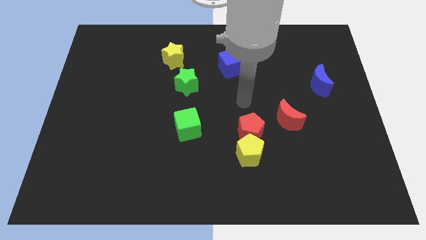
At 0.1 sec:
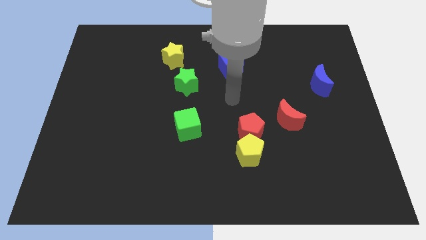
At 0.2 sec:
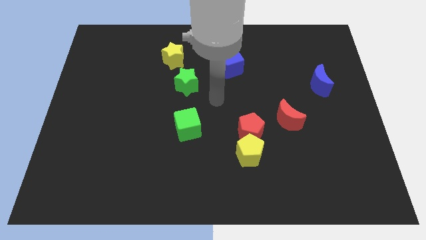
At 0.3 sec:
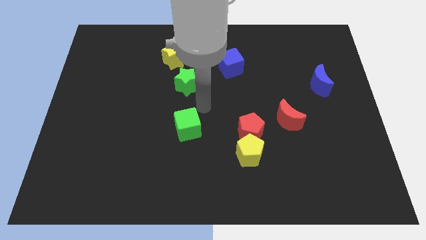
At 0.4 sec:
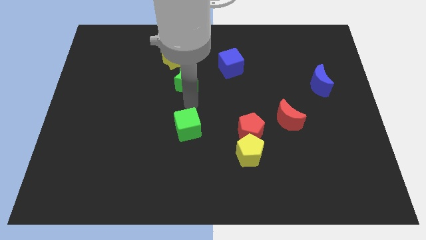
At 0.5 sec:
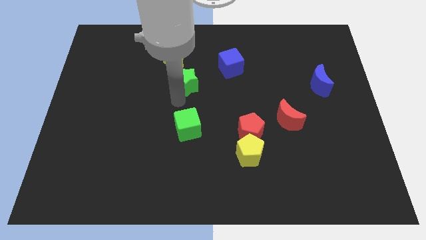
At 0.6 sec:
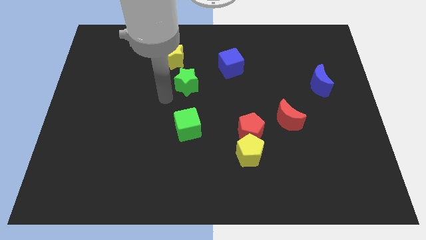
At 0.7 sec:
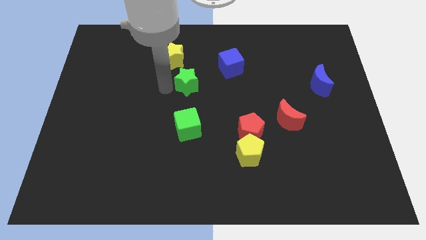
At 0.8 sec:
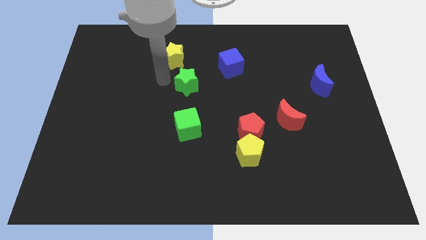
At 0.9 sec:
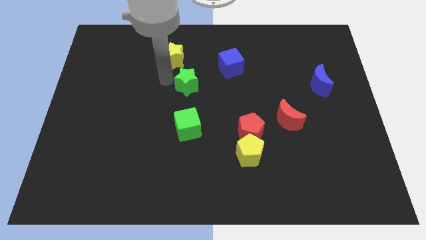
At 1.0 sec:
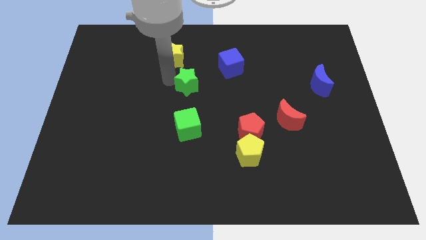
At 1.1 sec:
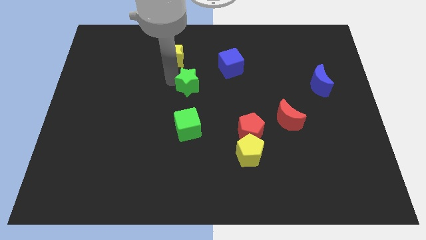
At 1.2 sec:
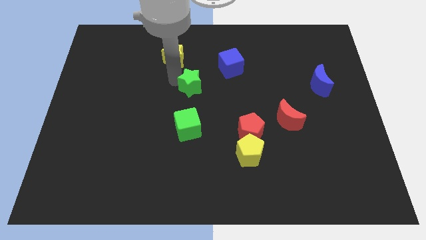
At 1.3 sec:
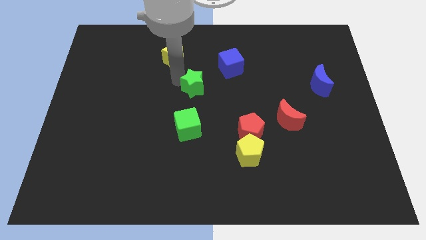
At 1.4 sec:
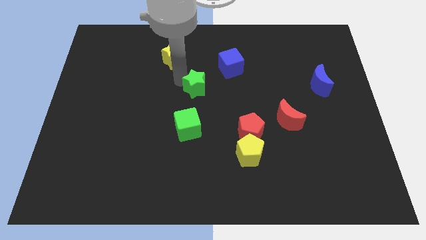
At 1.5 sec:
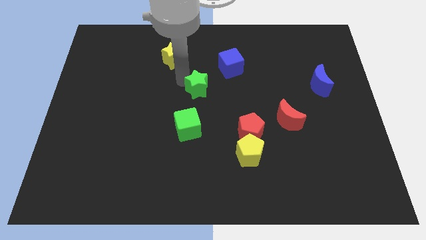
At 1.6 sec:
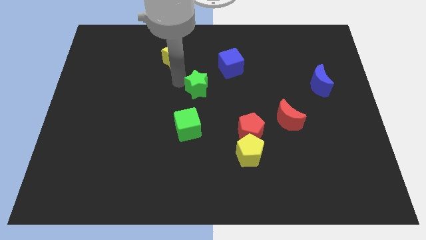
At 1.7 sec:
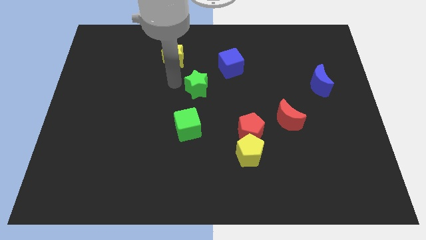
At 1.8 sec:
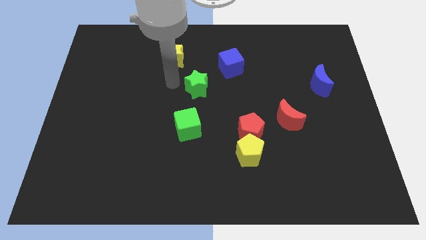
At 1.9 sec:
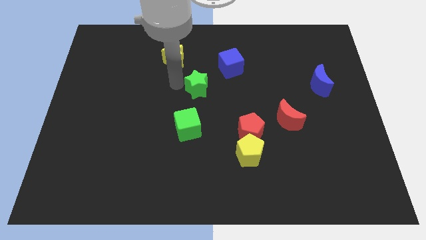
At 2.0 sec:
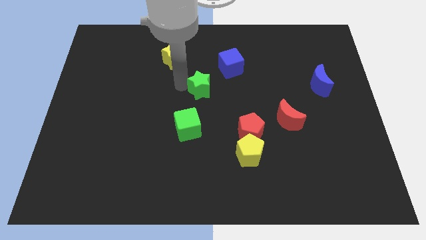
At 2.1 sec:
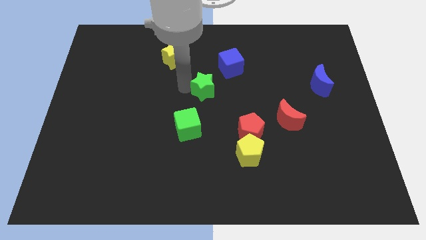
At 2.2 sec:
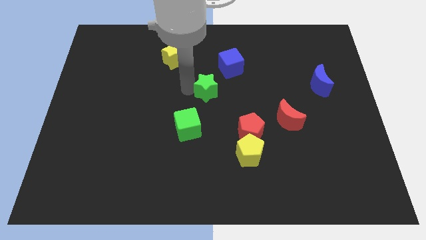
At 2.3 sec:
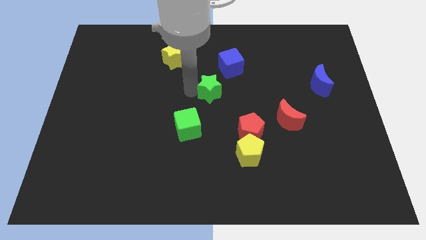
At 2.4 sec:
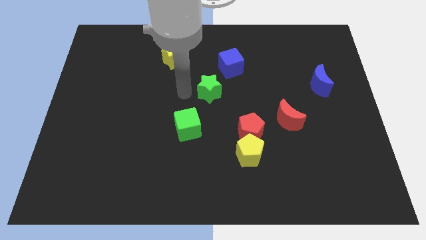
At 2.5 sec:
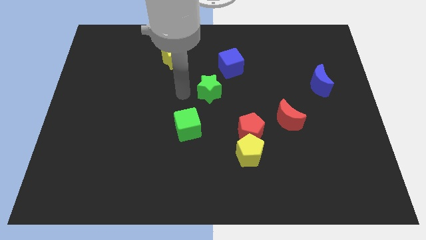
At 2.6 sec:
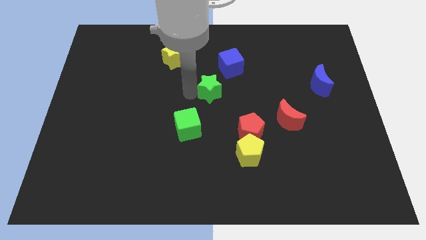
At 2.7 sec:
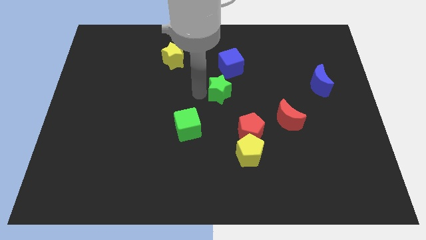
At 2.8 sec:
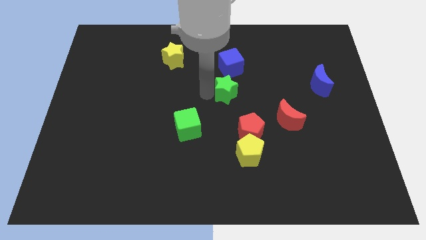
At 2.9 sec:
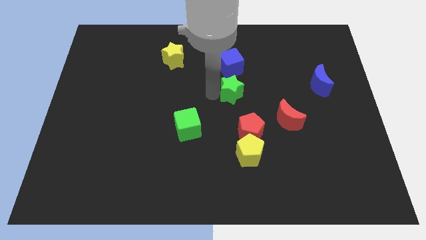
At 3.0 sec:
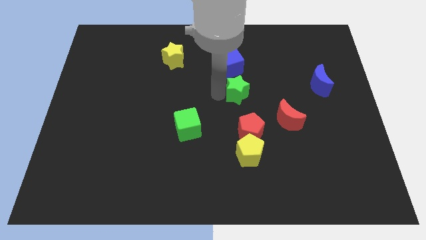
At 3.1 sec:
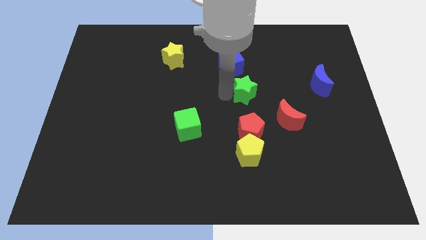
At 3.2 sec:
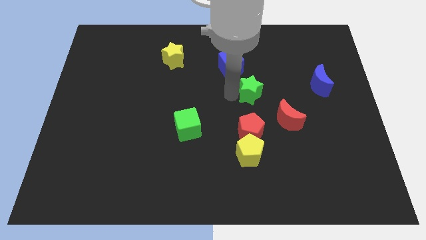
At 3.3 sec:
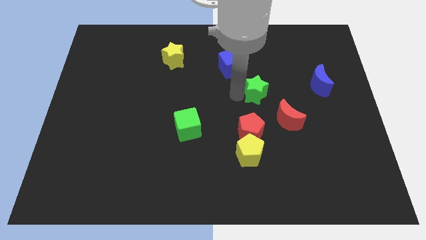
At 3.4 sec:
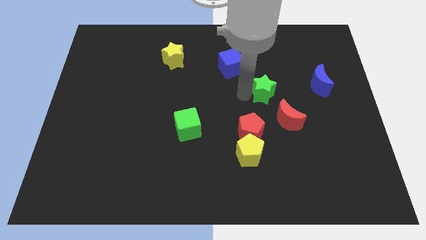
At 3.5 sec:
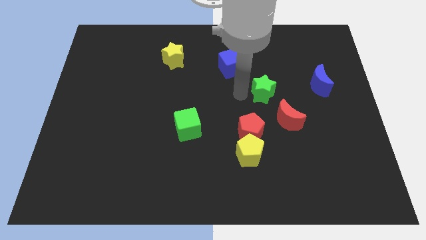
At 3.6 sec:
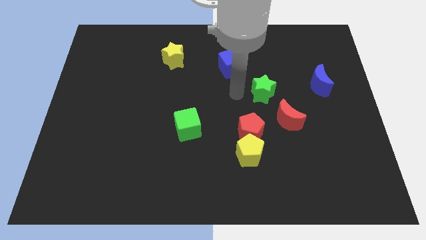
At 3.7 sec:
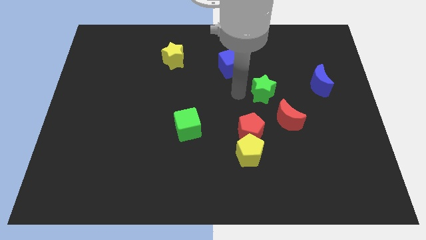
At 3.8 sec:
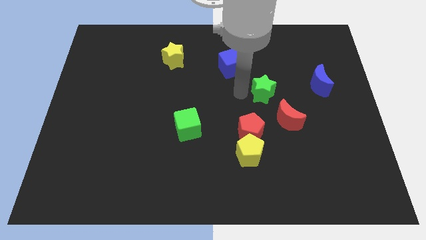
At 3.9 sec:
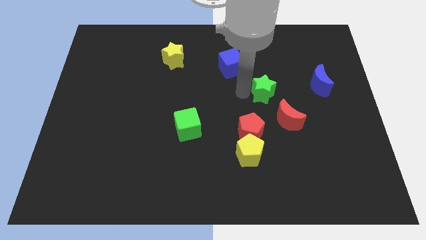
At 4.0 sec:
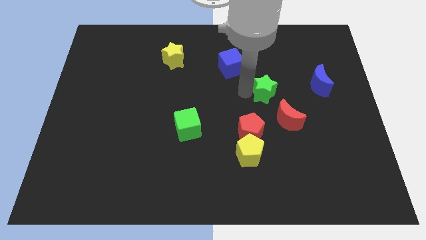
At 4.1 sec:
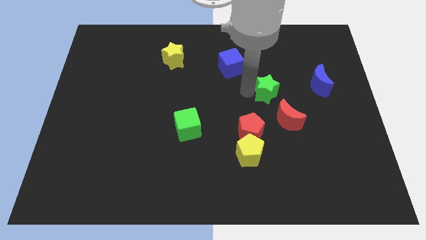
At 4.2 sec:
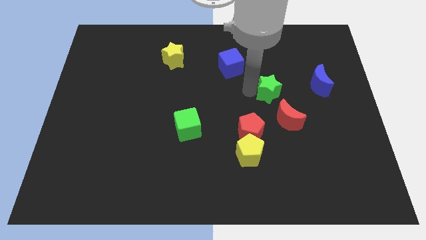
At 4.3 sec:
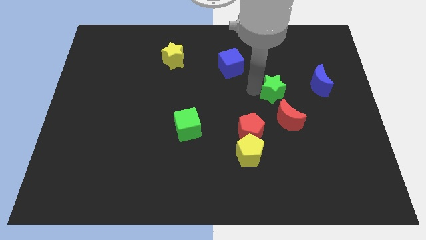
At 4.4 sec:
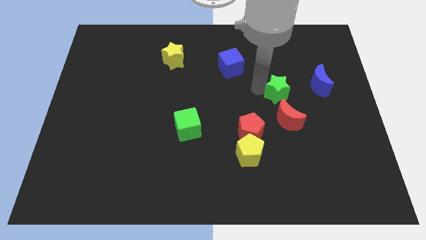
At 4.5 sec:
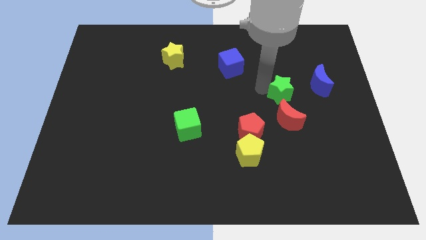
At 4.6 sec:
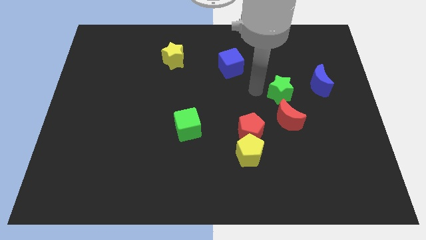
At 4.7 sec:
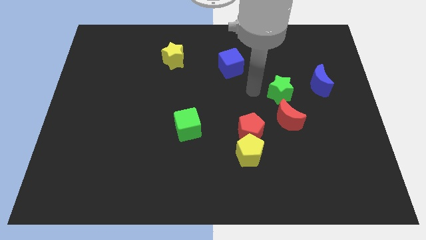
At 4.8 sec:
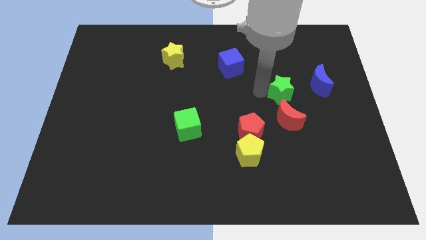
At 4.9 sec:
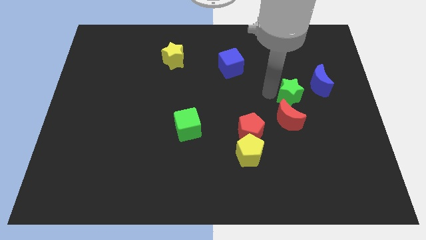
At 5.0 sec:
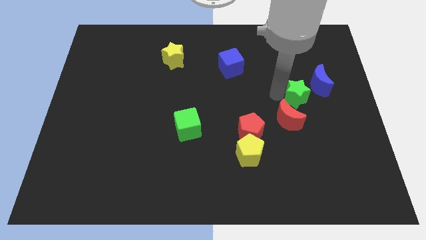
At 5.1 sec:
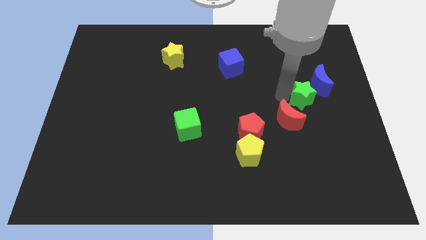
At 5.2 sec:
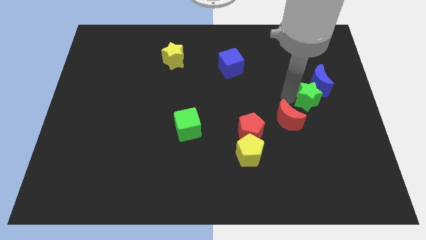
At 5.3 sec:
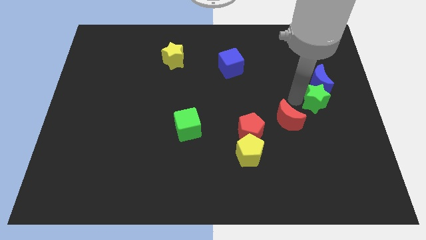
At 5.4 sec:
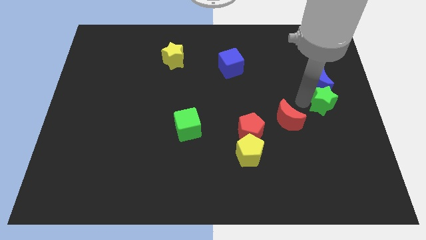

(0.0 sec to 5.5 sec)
push the green star to the right side
